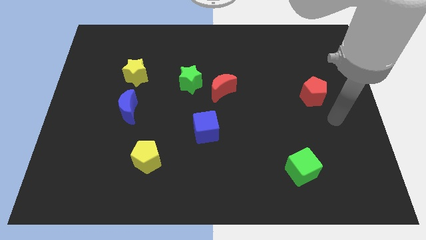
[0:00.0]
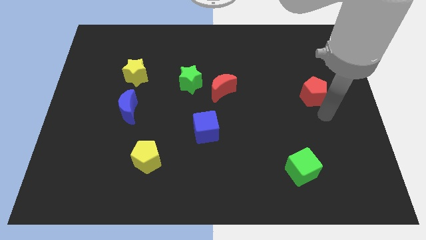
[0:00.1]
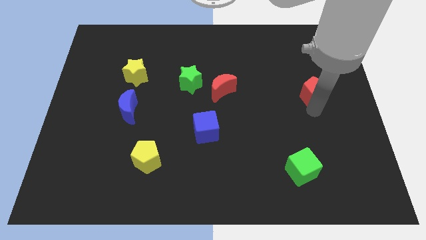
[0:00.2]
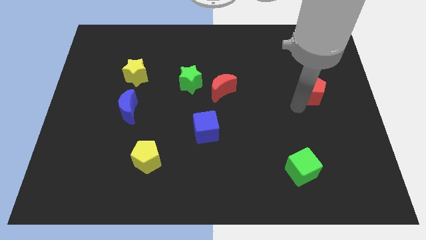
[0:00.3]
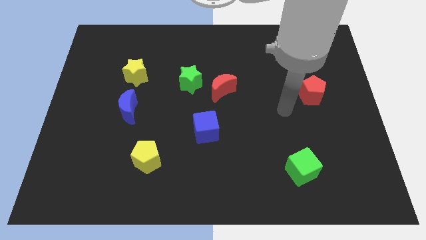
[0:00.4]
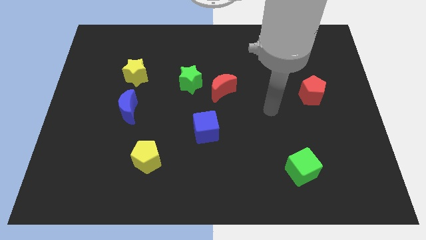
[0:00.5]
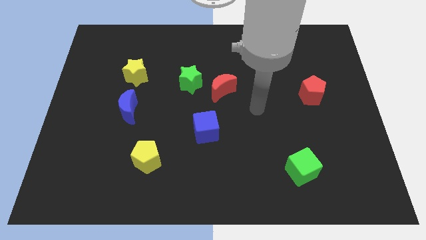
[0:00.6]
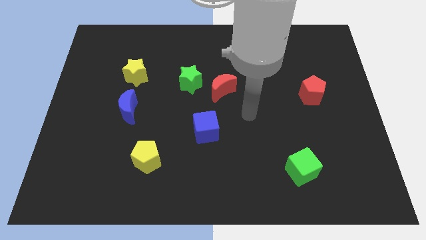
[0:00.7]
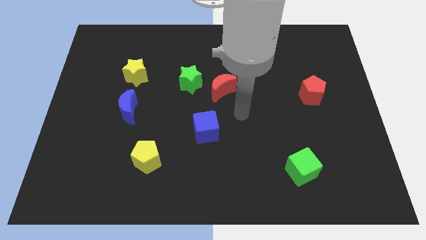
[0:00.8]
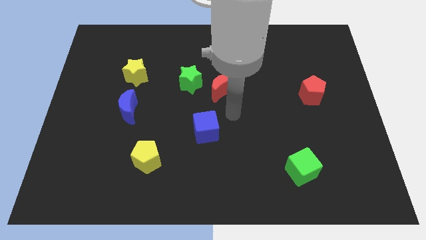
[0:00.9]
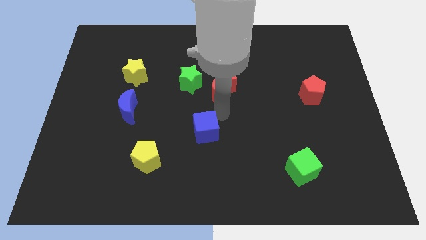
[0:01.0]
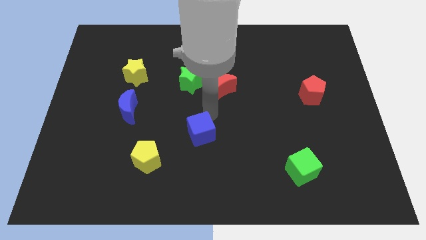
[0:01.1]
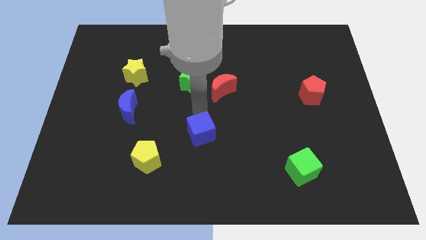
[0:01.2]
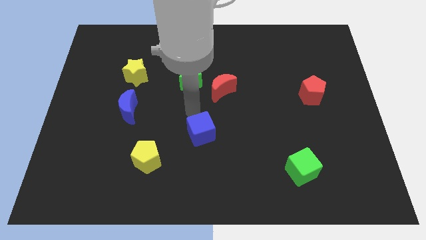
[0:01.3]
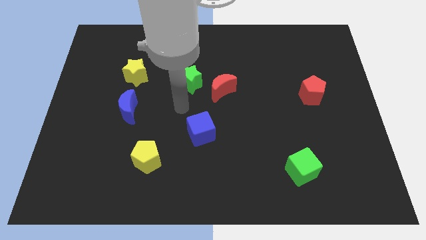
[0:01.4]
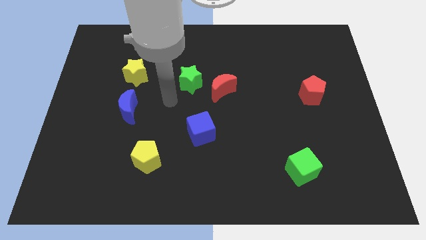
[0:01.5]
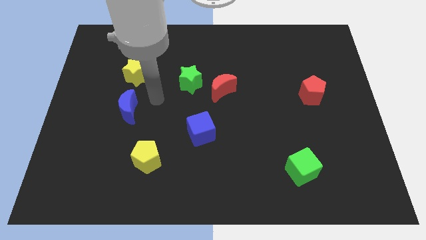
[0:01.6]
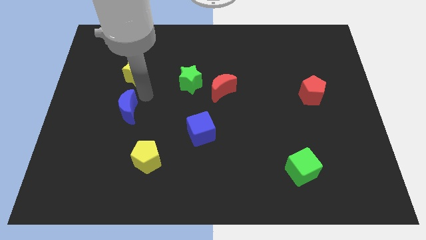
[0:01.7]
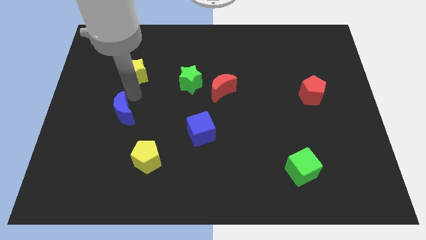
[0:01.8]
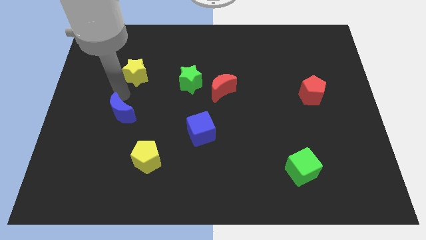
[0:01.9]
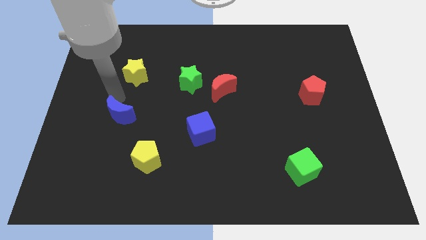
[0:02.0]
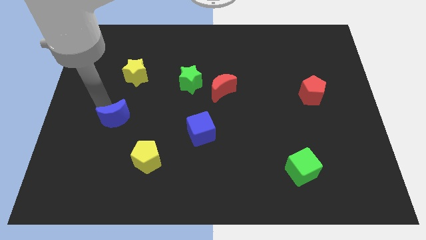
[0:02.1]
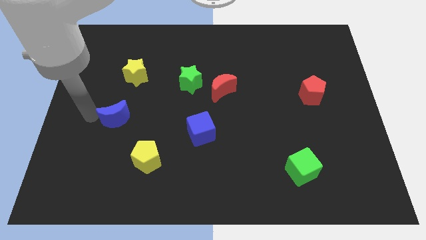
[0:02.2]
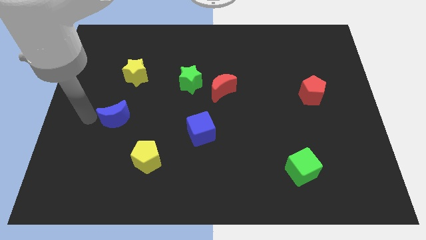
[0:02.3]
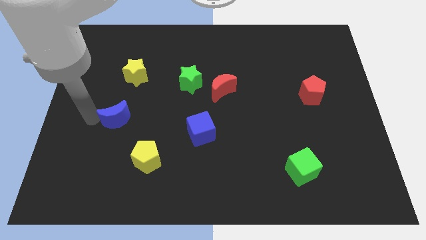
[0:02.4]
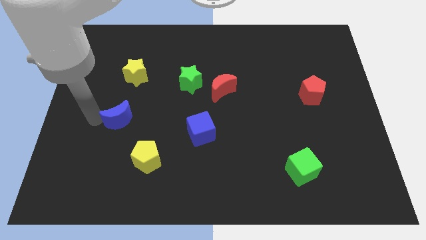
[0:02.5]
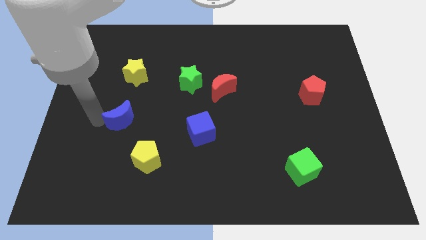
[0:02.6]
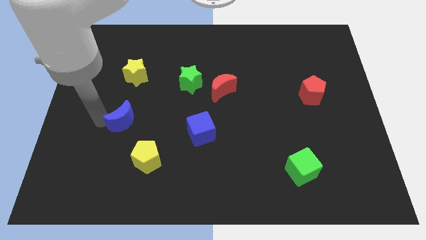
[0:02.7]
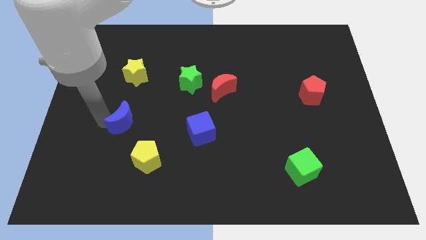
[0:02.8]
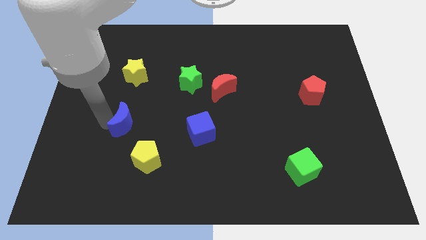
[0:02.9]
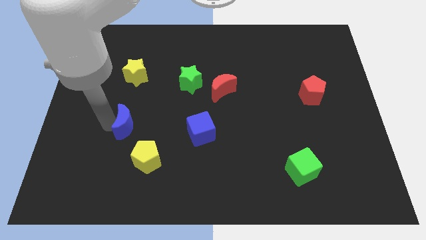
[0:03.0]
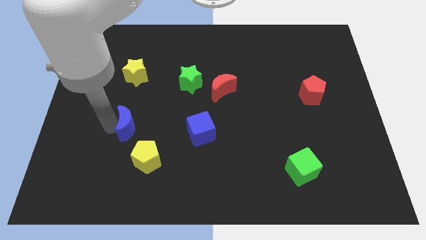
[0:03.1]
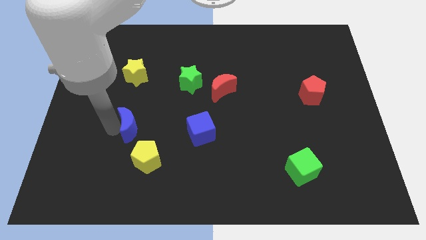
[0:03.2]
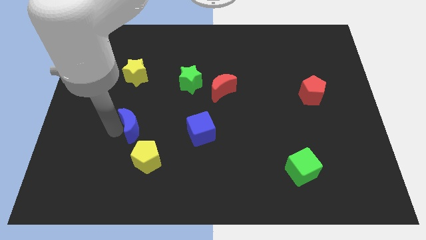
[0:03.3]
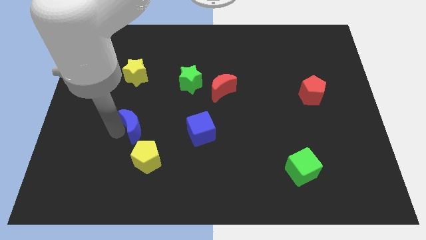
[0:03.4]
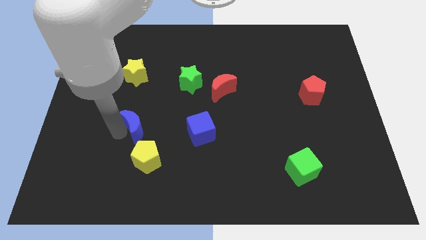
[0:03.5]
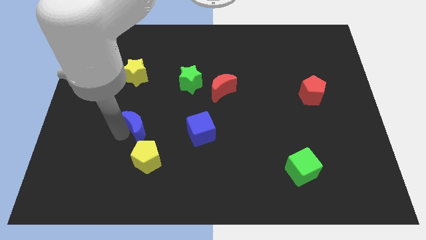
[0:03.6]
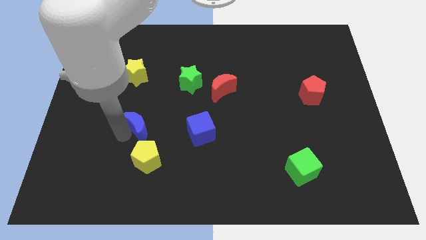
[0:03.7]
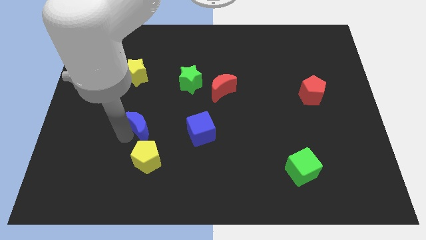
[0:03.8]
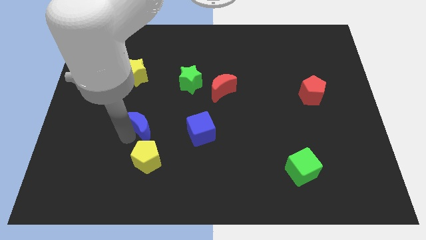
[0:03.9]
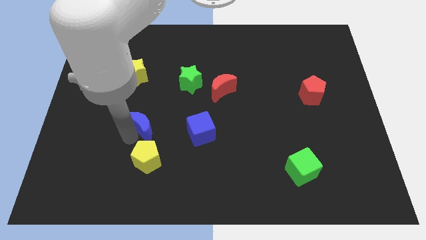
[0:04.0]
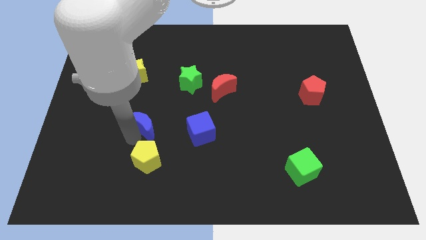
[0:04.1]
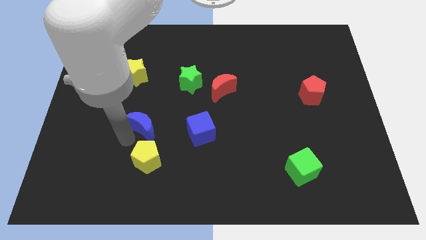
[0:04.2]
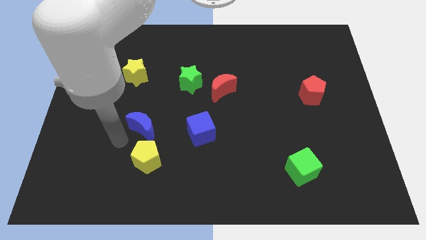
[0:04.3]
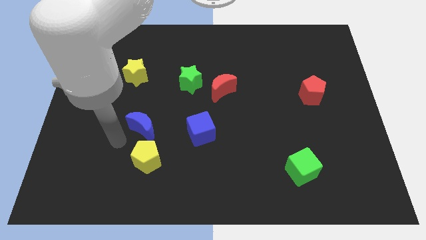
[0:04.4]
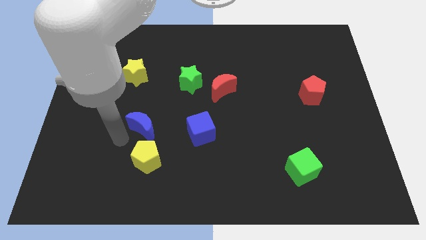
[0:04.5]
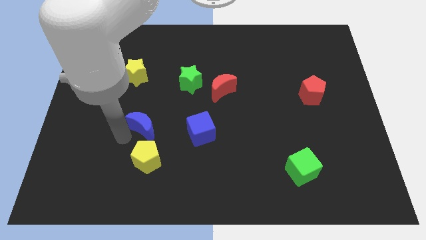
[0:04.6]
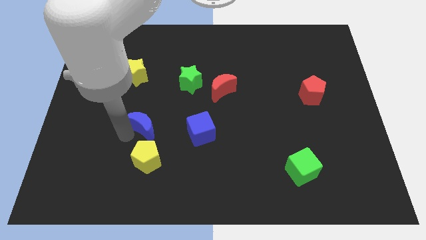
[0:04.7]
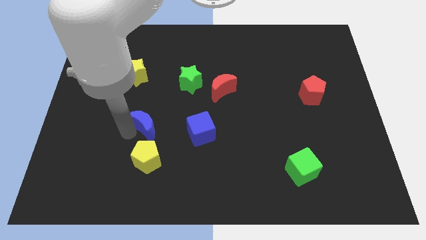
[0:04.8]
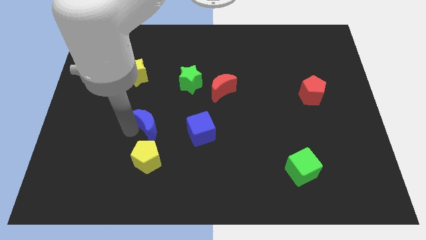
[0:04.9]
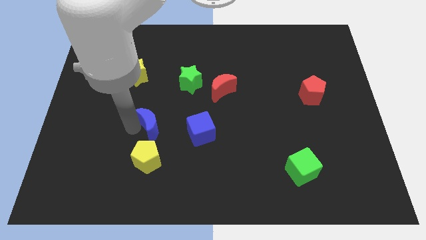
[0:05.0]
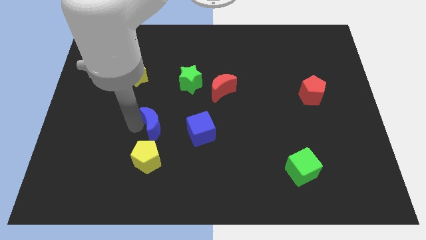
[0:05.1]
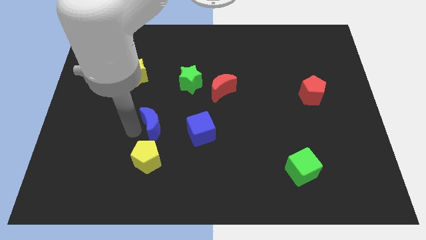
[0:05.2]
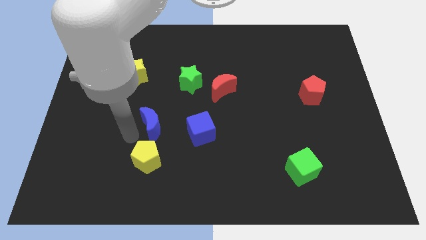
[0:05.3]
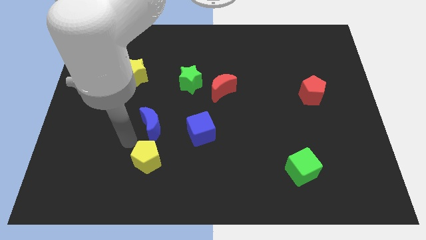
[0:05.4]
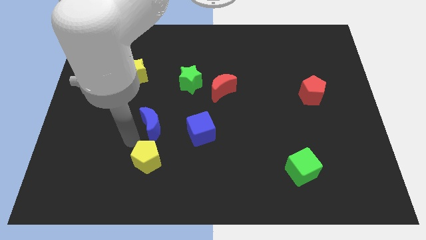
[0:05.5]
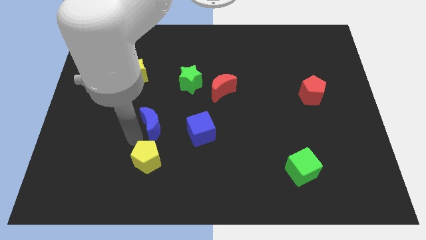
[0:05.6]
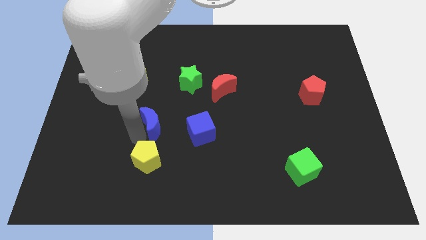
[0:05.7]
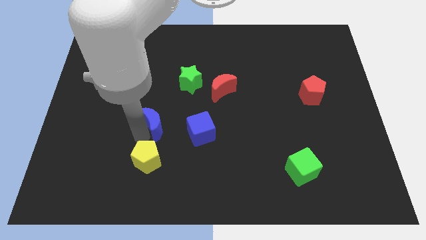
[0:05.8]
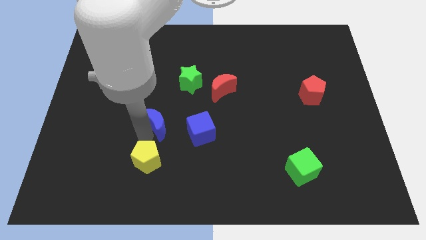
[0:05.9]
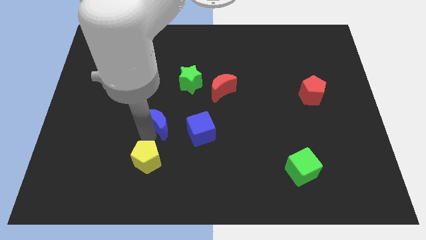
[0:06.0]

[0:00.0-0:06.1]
slightly move the blue moon right

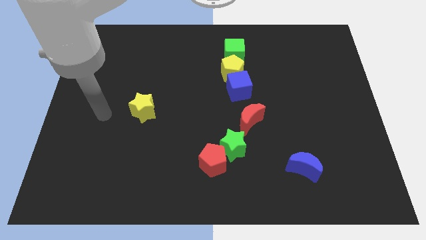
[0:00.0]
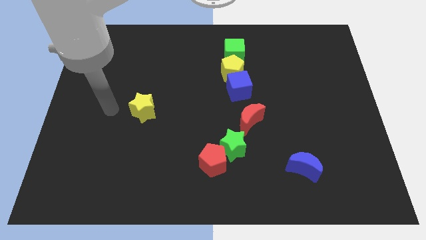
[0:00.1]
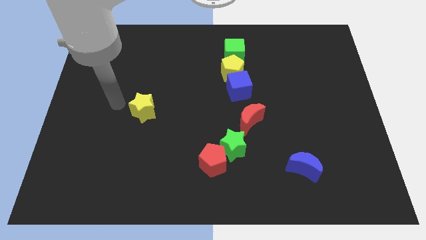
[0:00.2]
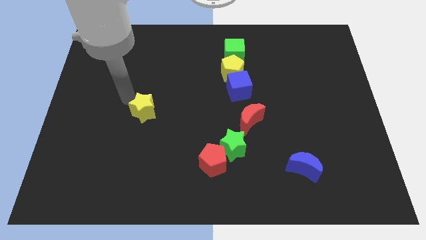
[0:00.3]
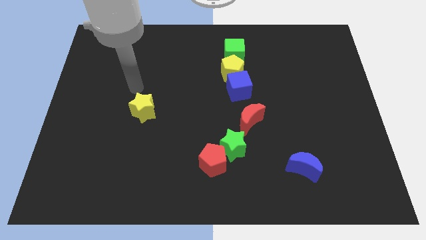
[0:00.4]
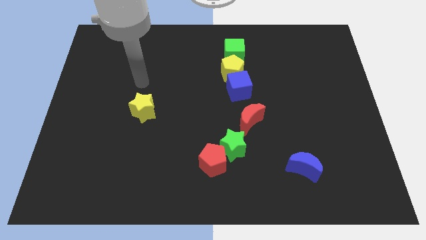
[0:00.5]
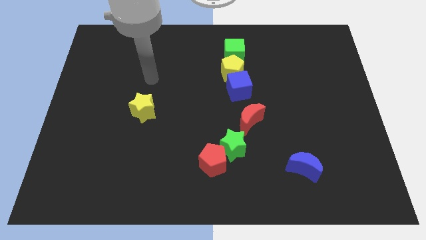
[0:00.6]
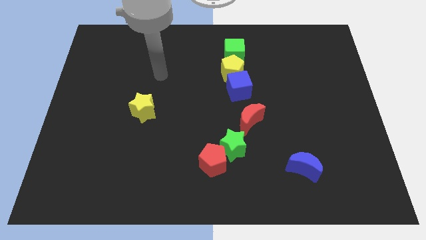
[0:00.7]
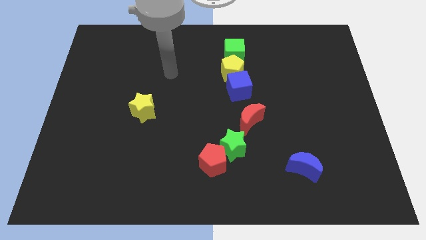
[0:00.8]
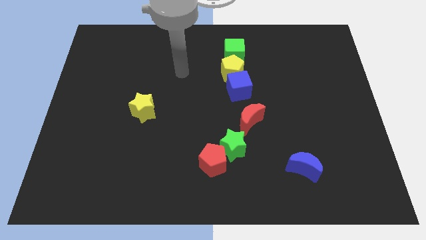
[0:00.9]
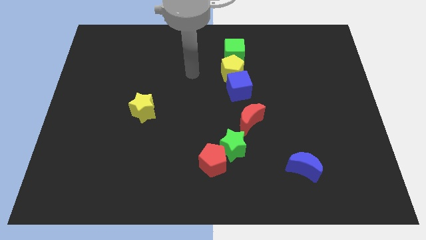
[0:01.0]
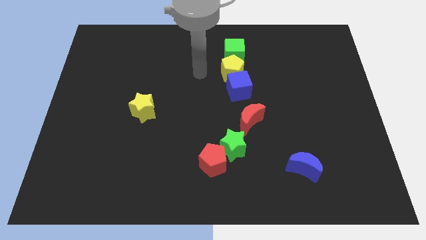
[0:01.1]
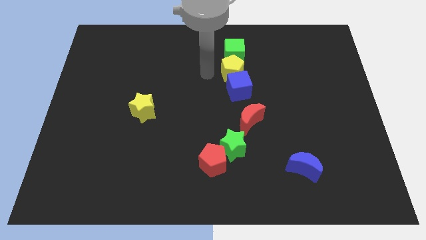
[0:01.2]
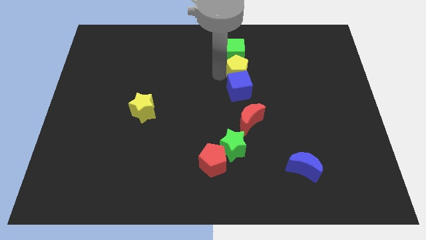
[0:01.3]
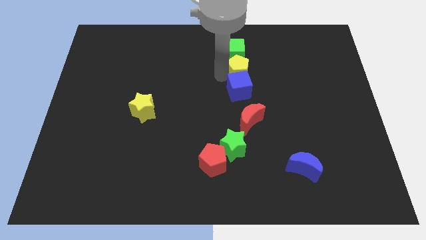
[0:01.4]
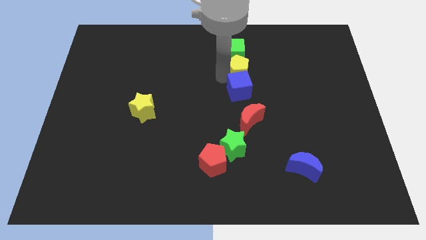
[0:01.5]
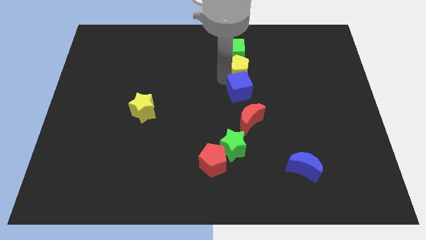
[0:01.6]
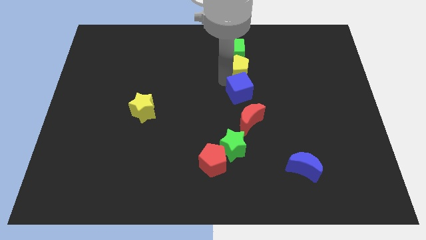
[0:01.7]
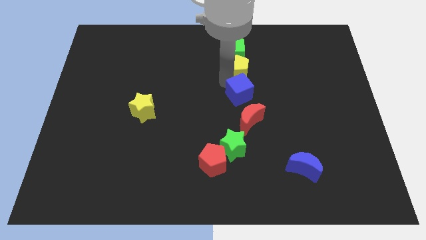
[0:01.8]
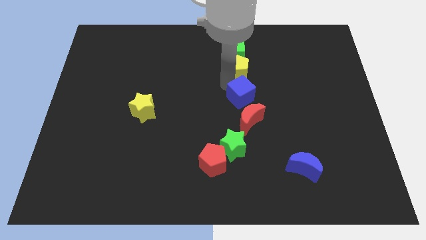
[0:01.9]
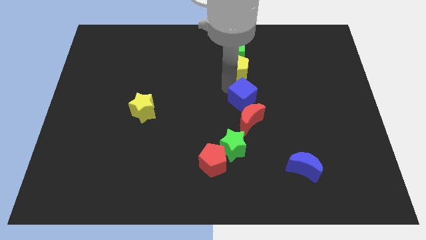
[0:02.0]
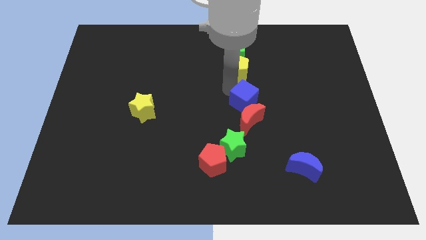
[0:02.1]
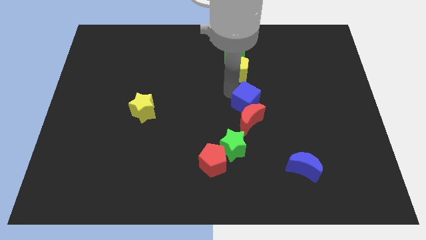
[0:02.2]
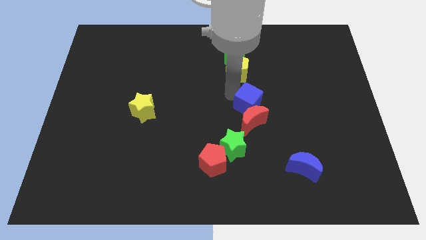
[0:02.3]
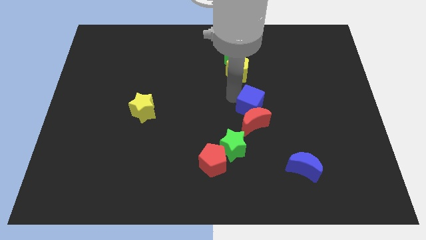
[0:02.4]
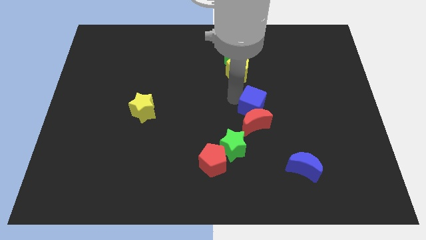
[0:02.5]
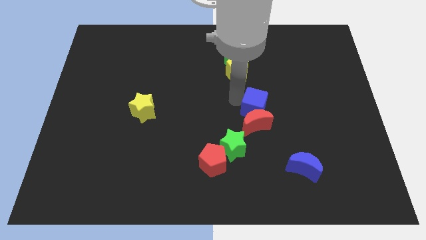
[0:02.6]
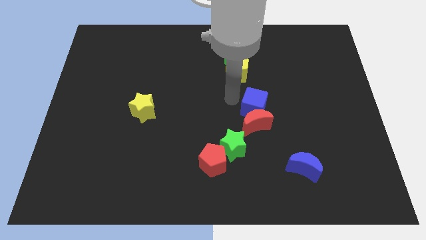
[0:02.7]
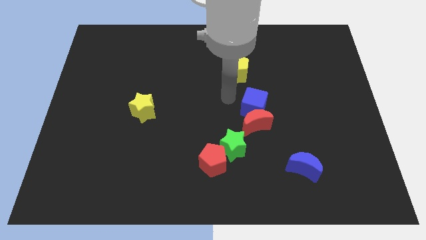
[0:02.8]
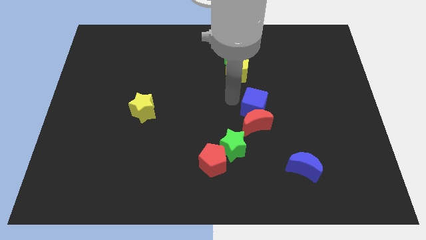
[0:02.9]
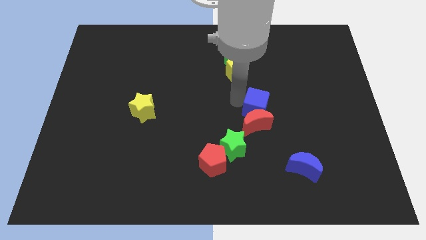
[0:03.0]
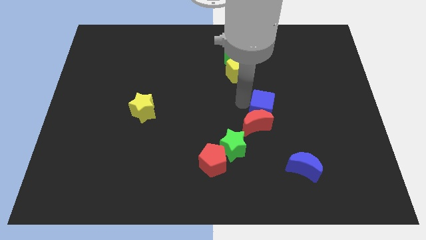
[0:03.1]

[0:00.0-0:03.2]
push the blue cube downwards and to the right diagonally a little
